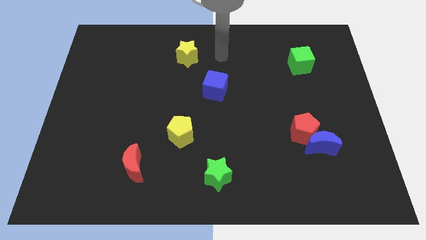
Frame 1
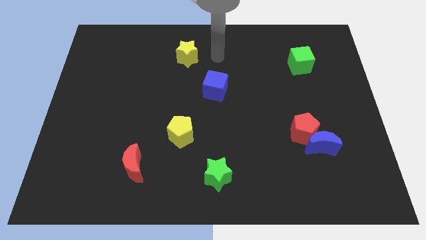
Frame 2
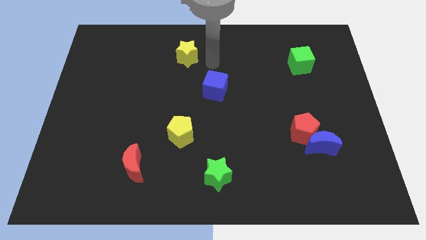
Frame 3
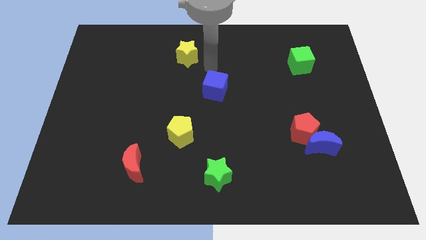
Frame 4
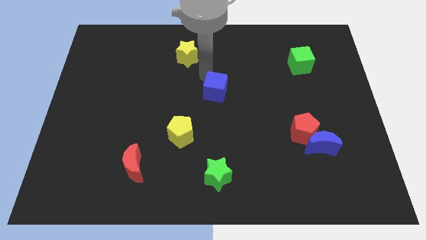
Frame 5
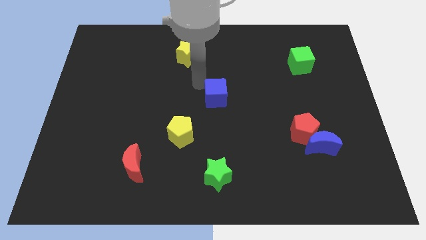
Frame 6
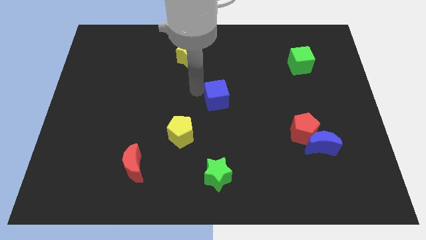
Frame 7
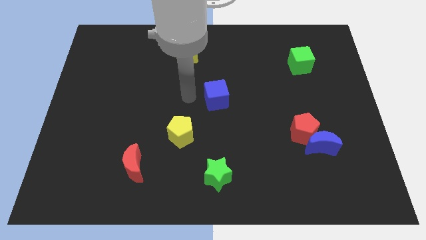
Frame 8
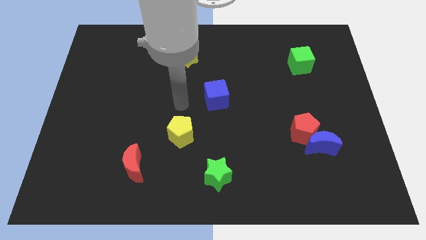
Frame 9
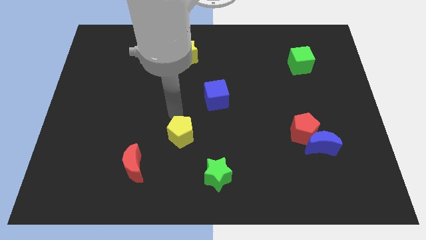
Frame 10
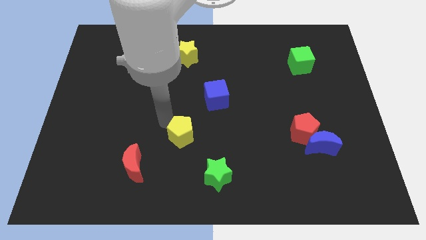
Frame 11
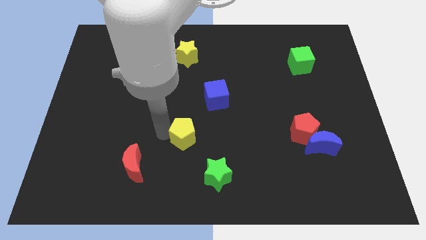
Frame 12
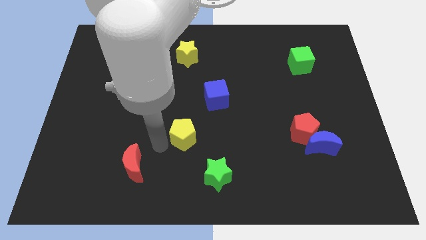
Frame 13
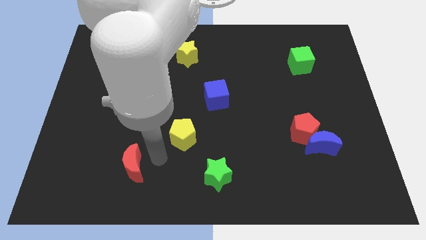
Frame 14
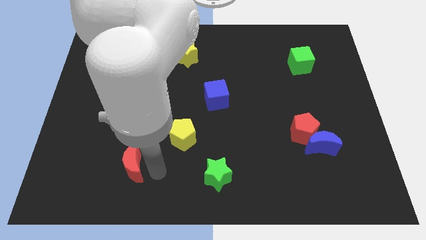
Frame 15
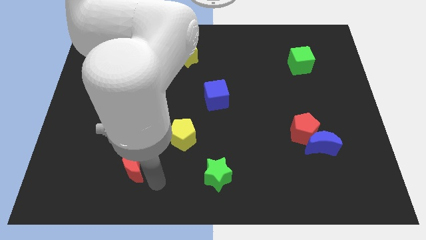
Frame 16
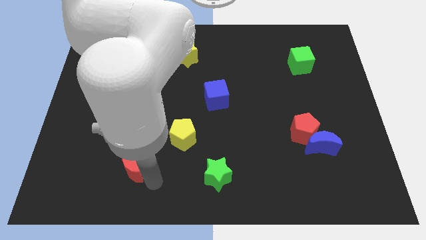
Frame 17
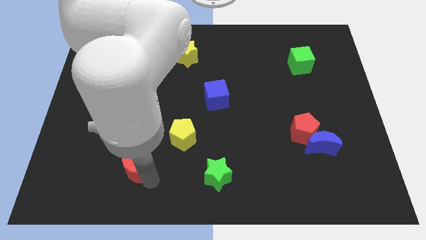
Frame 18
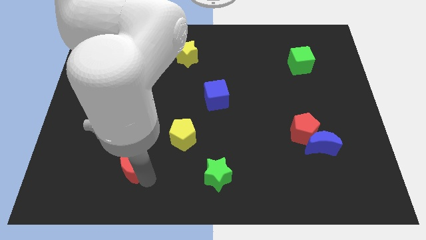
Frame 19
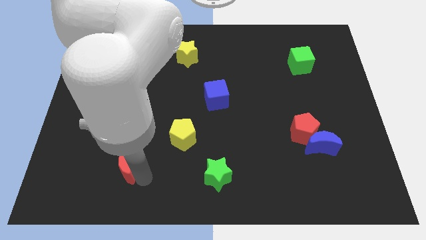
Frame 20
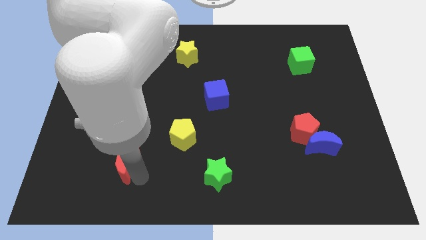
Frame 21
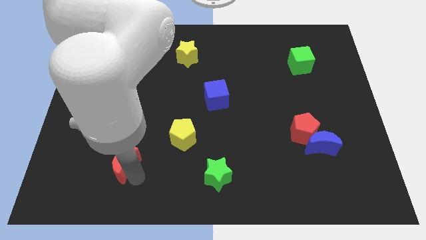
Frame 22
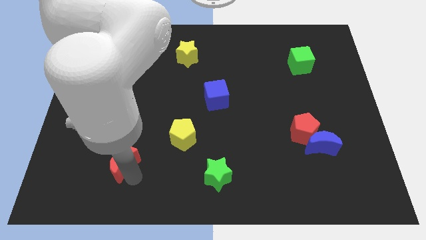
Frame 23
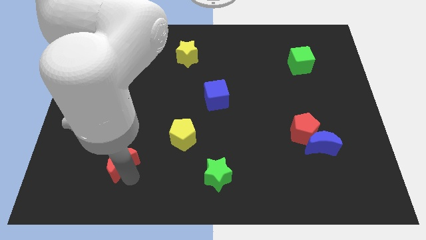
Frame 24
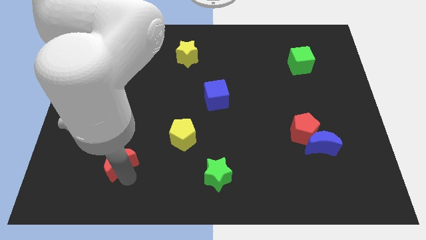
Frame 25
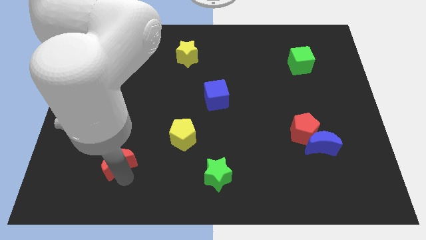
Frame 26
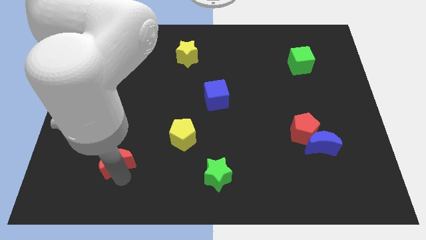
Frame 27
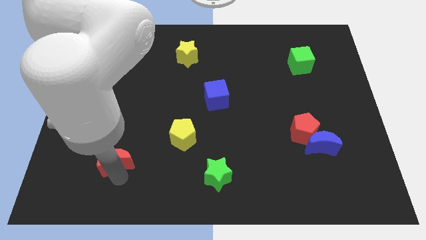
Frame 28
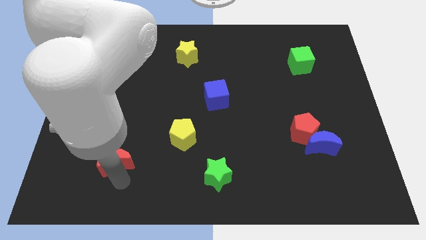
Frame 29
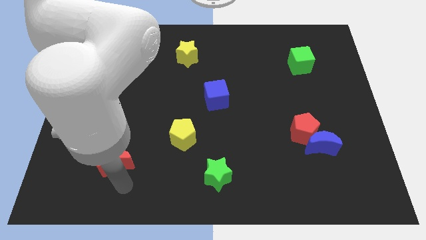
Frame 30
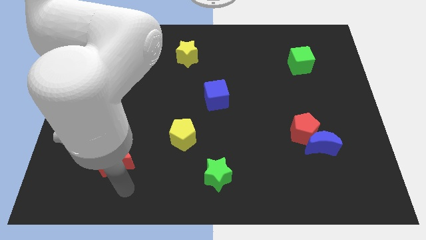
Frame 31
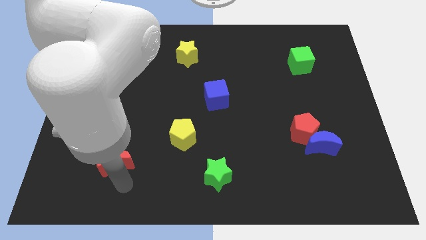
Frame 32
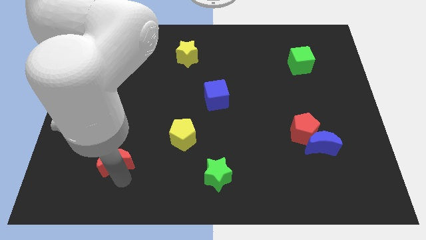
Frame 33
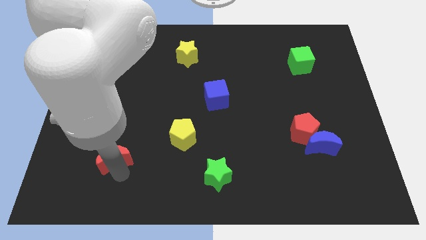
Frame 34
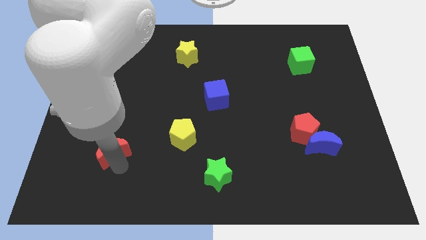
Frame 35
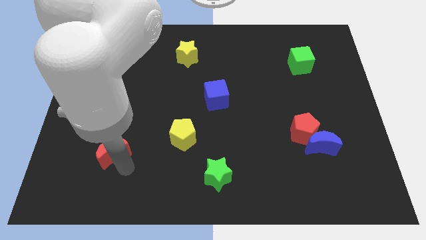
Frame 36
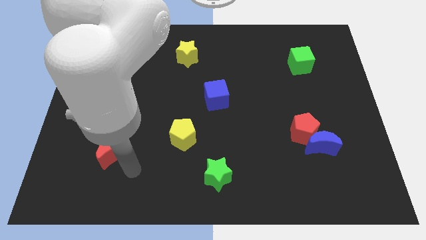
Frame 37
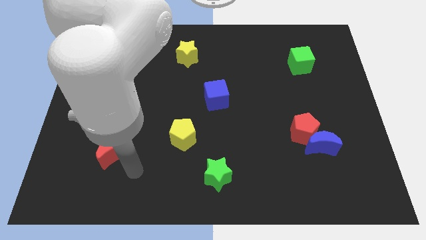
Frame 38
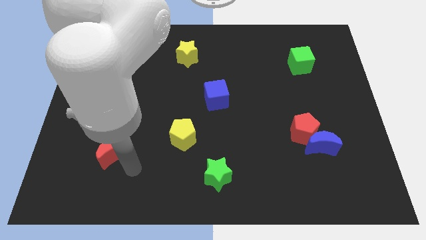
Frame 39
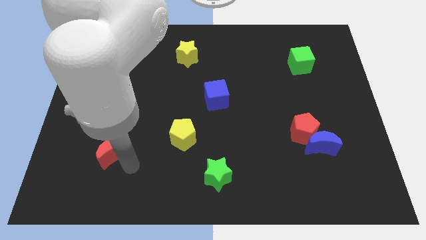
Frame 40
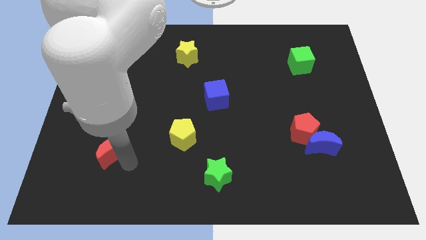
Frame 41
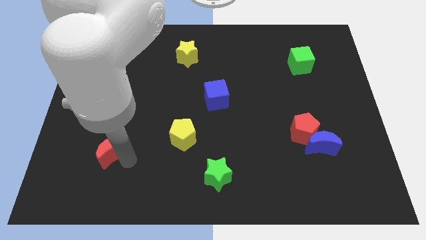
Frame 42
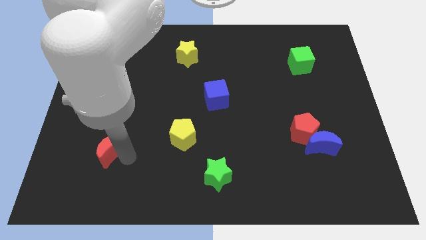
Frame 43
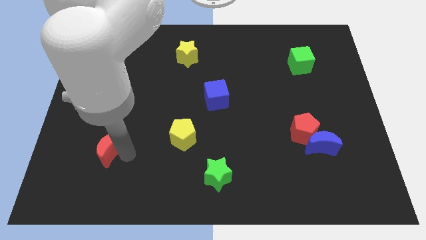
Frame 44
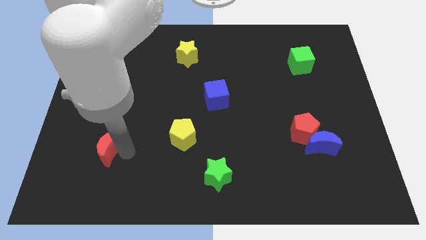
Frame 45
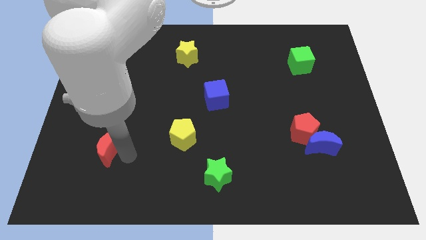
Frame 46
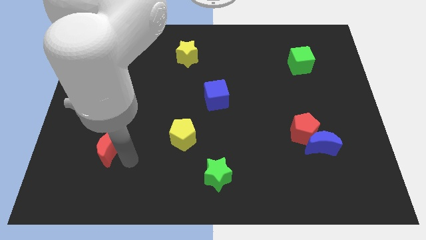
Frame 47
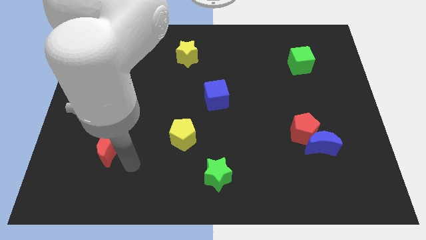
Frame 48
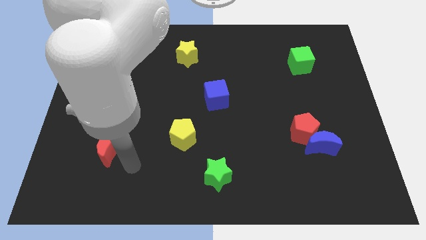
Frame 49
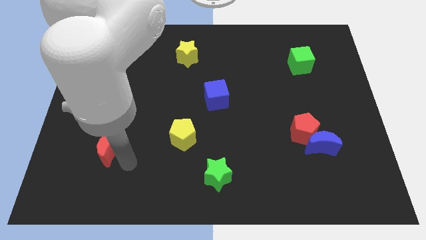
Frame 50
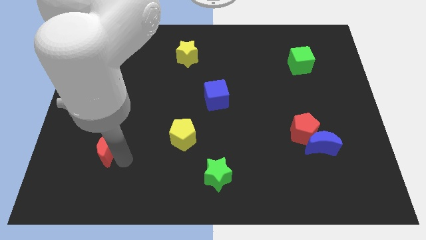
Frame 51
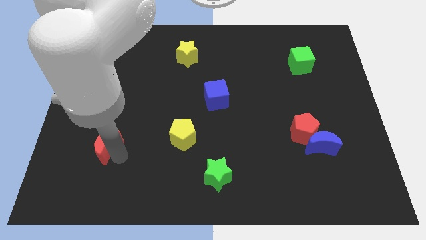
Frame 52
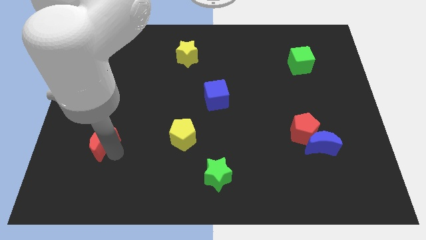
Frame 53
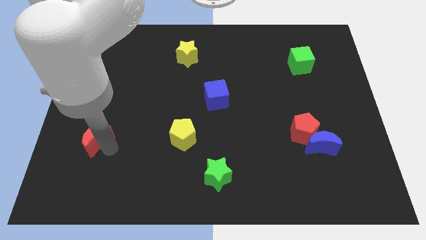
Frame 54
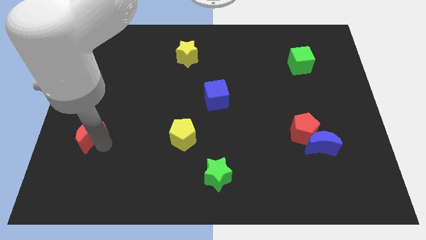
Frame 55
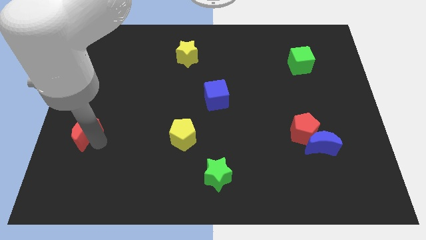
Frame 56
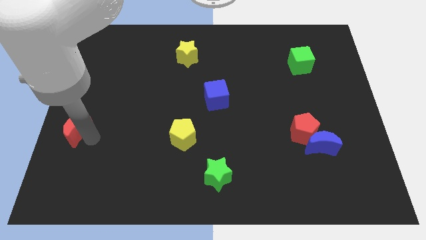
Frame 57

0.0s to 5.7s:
put the red moon to the center left
